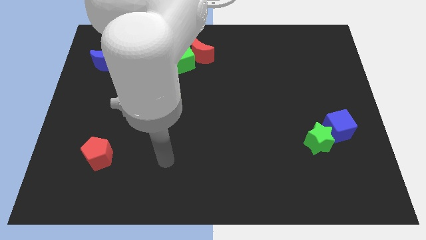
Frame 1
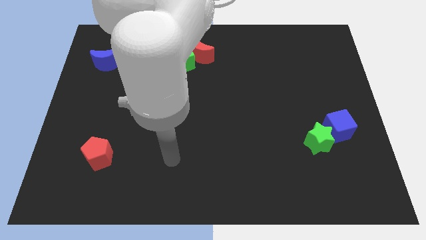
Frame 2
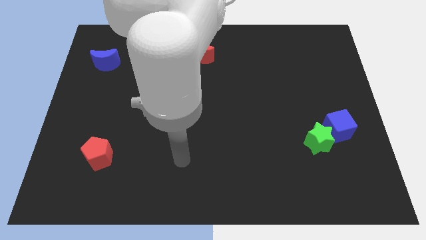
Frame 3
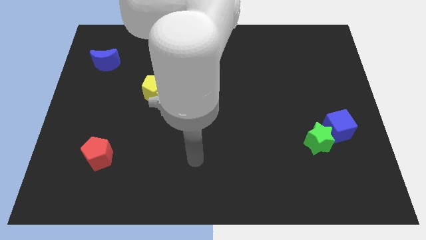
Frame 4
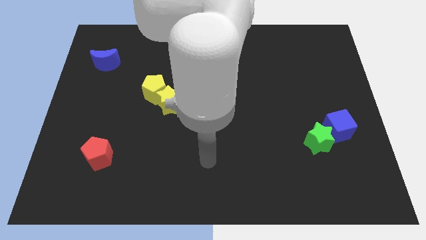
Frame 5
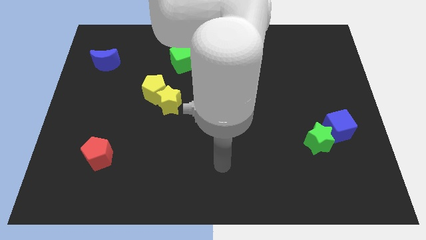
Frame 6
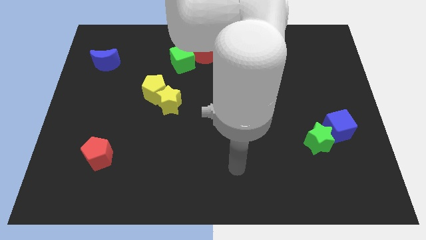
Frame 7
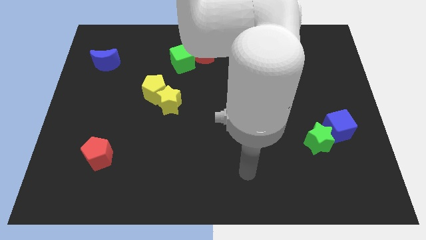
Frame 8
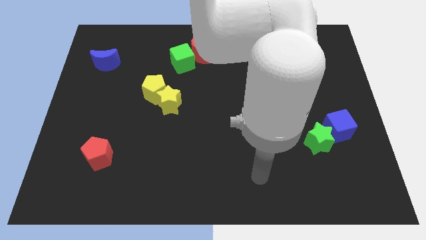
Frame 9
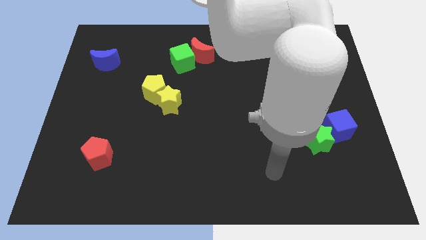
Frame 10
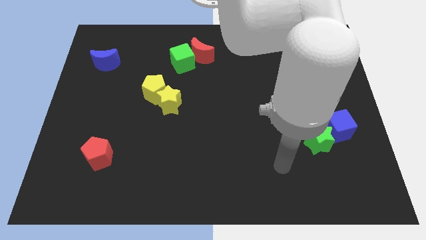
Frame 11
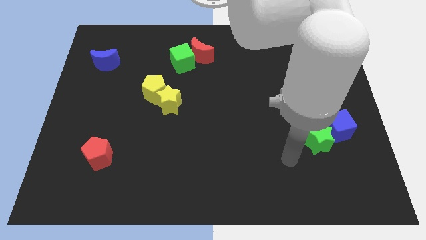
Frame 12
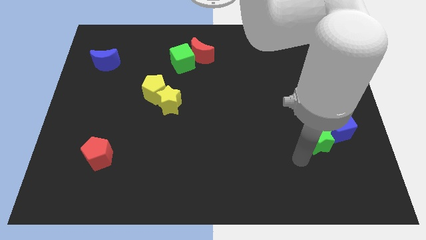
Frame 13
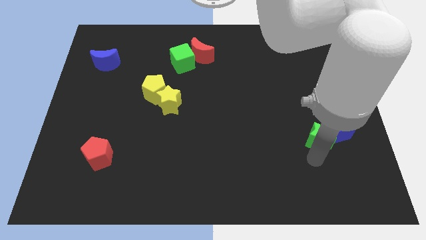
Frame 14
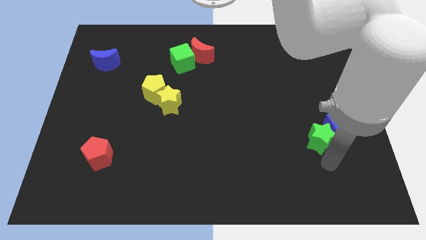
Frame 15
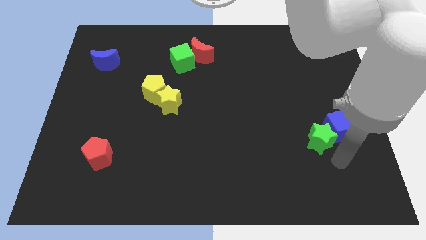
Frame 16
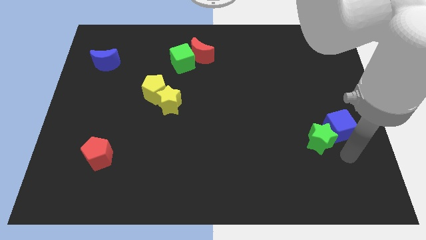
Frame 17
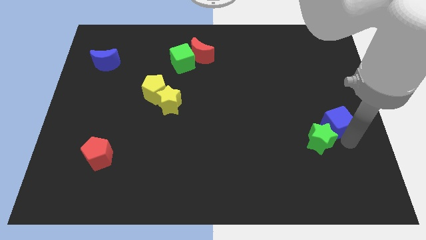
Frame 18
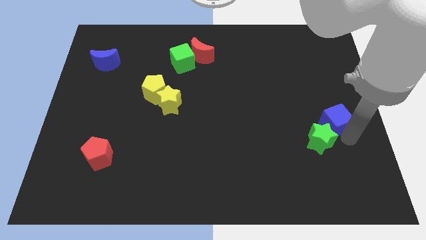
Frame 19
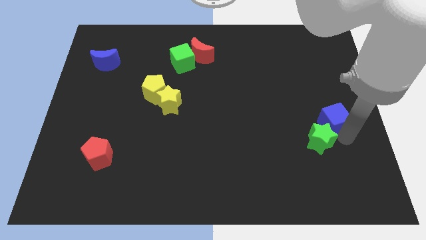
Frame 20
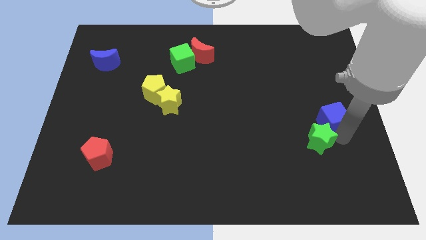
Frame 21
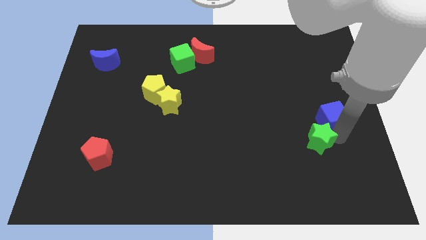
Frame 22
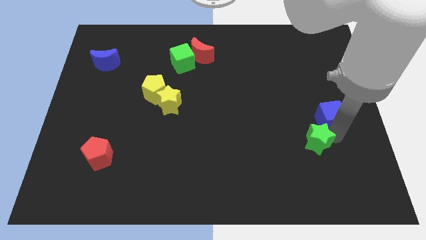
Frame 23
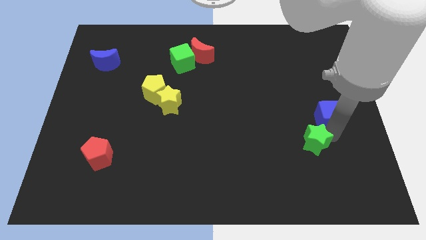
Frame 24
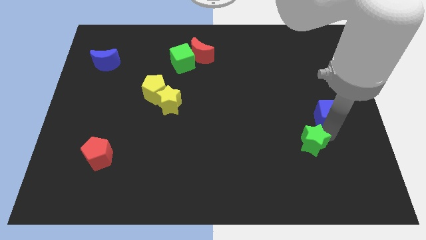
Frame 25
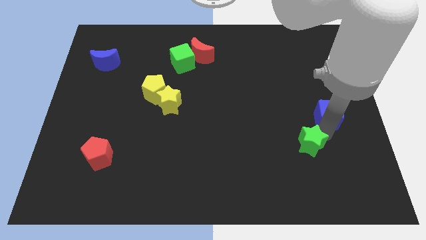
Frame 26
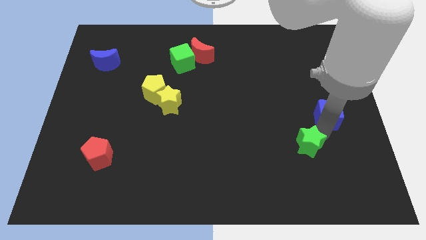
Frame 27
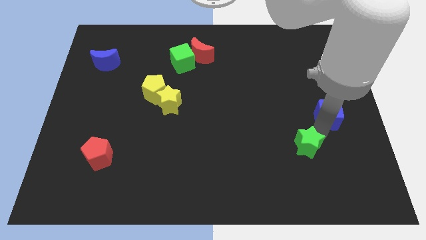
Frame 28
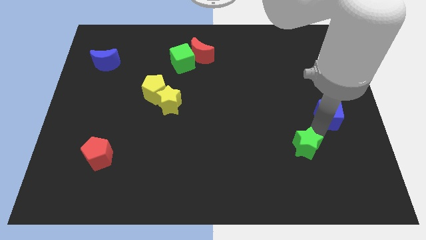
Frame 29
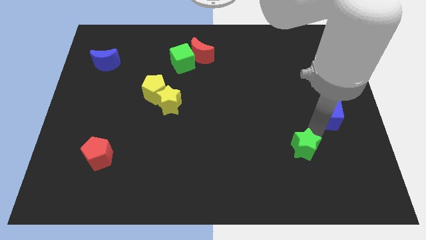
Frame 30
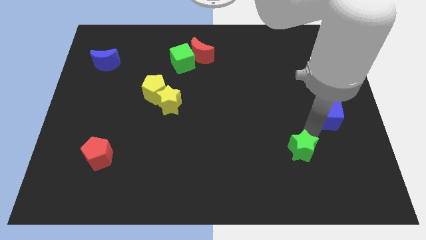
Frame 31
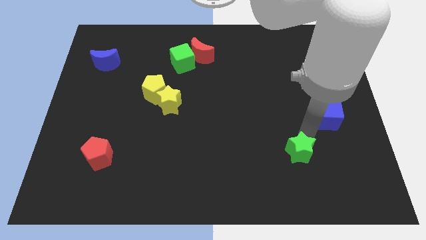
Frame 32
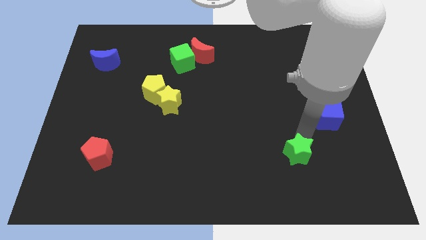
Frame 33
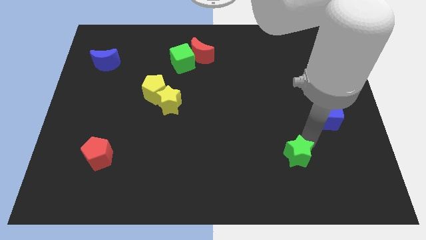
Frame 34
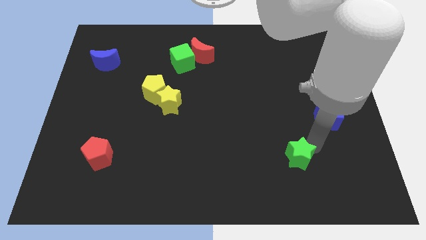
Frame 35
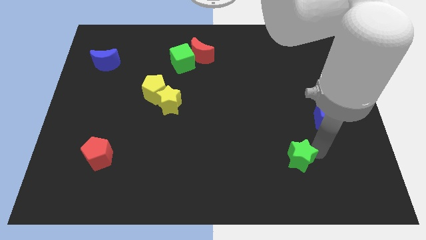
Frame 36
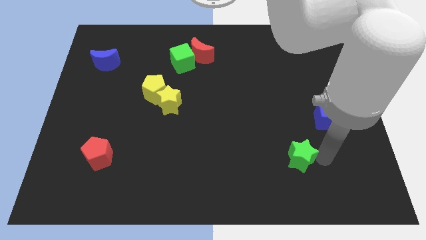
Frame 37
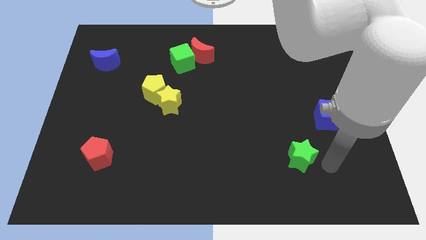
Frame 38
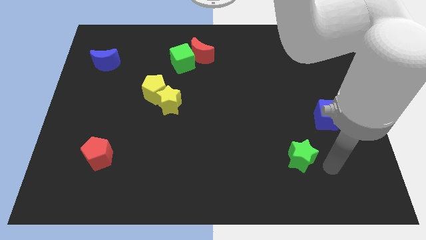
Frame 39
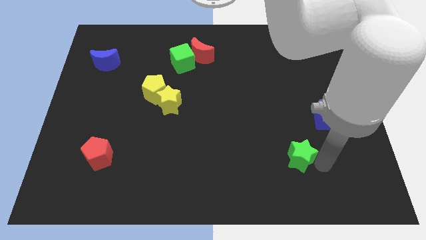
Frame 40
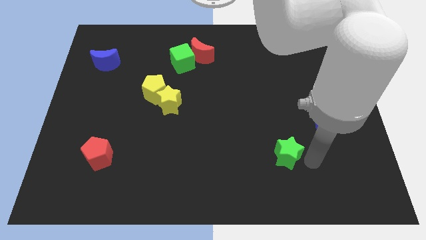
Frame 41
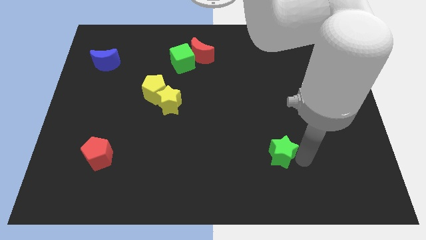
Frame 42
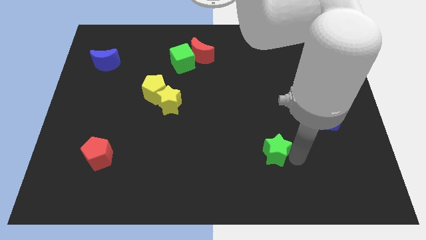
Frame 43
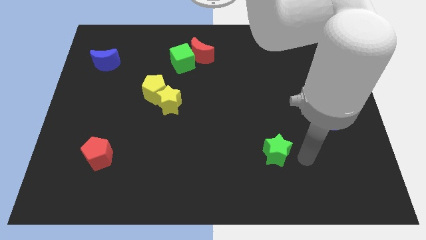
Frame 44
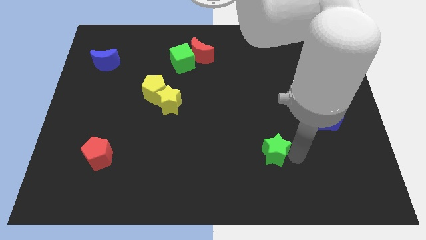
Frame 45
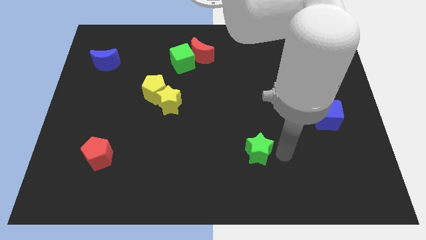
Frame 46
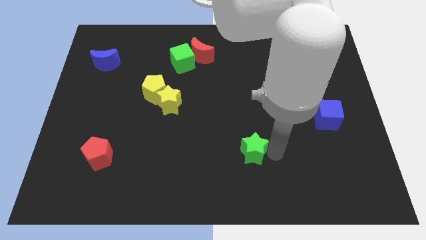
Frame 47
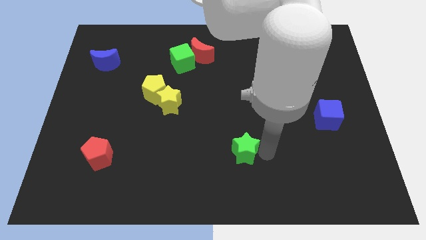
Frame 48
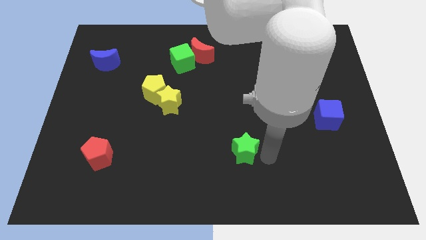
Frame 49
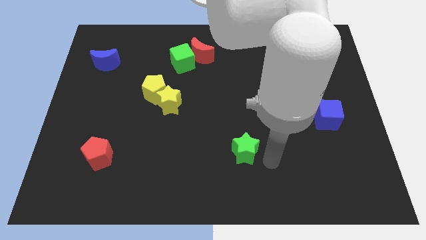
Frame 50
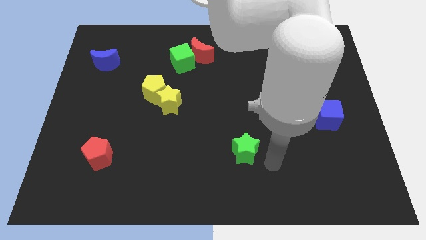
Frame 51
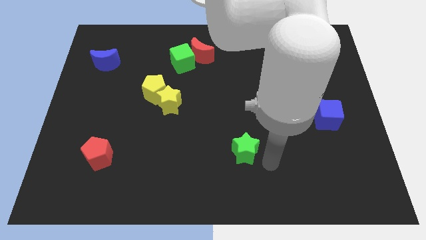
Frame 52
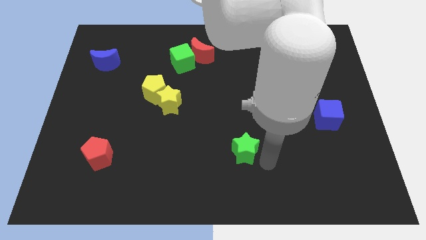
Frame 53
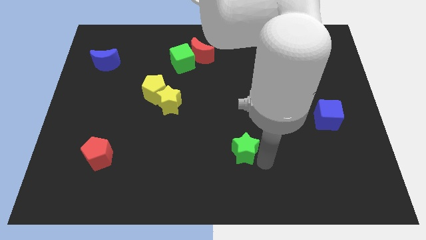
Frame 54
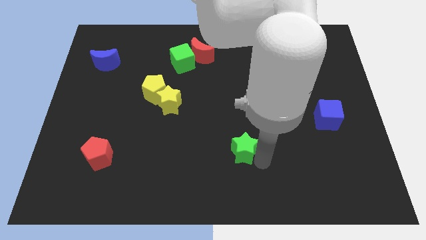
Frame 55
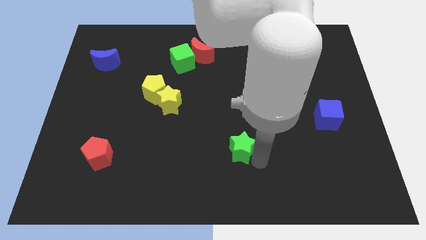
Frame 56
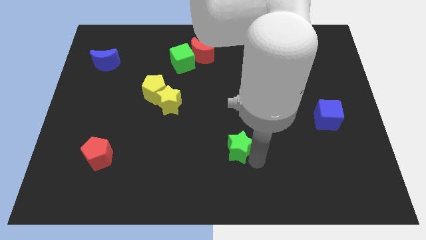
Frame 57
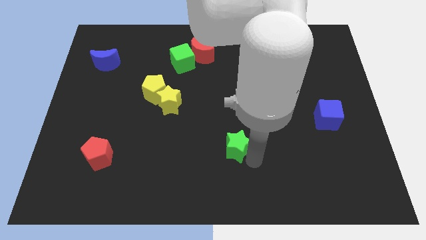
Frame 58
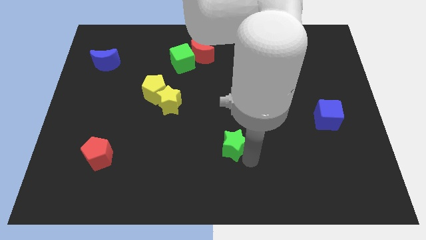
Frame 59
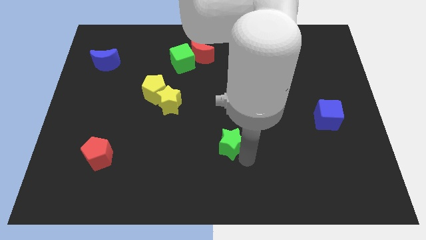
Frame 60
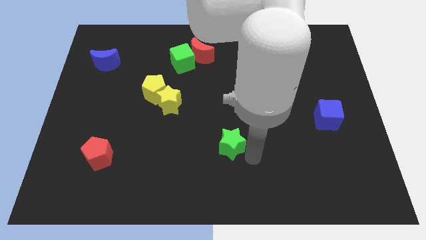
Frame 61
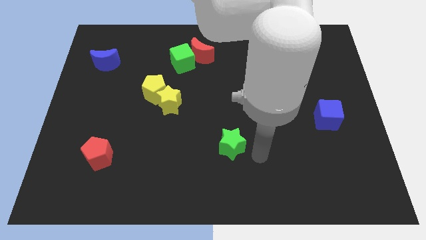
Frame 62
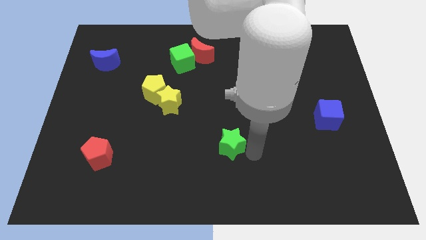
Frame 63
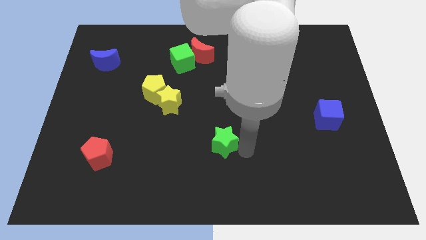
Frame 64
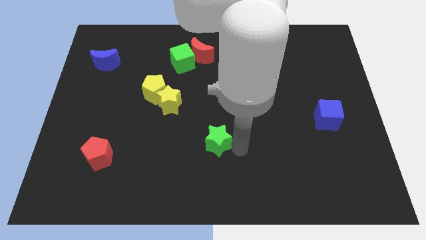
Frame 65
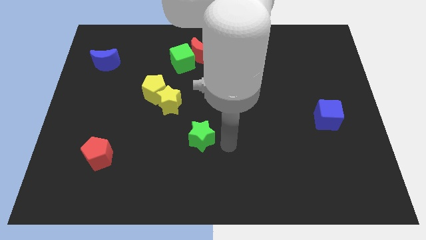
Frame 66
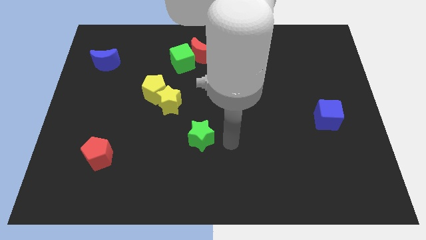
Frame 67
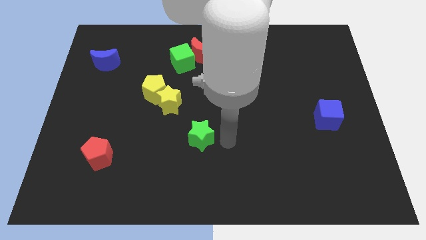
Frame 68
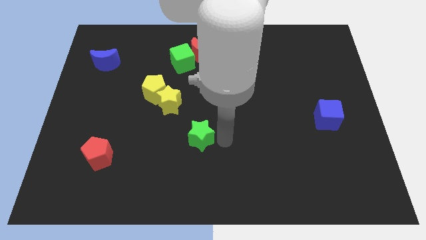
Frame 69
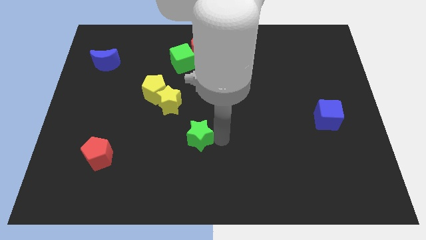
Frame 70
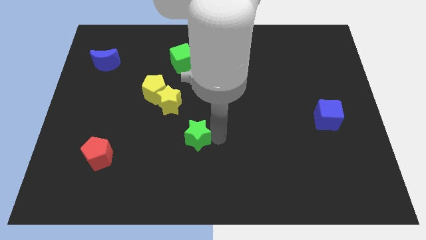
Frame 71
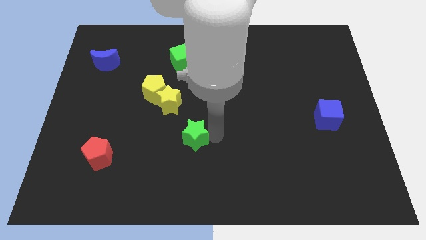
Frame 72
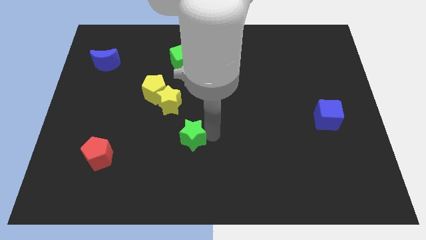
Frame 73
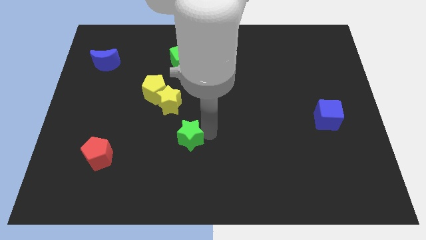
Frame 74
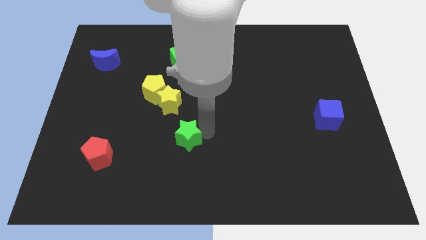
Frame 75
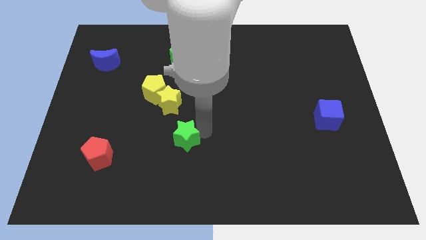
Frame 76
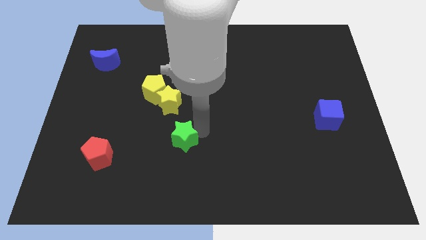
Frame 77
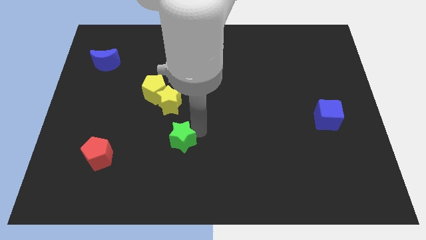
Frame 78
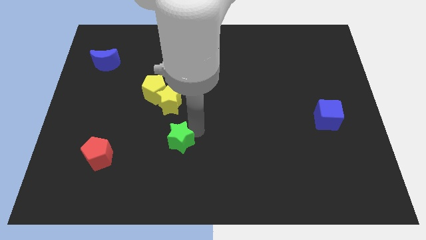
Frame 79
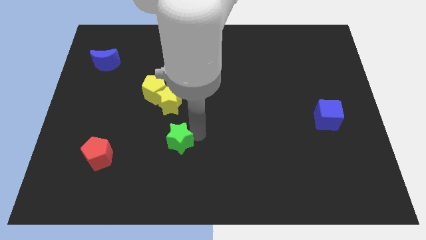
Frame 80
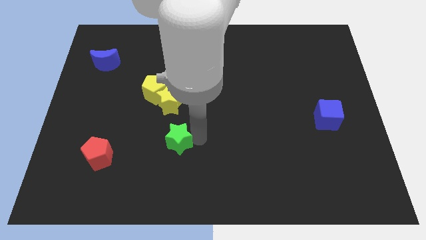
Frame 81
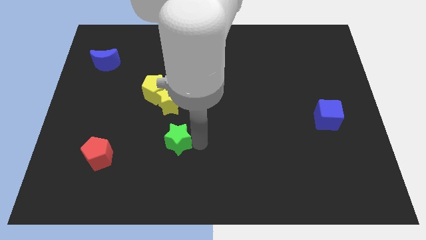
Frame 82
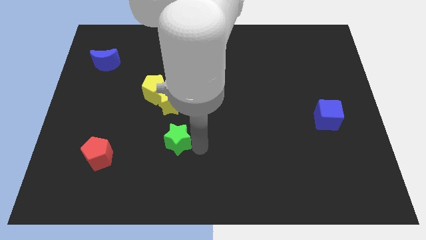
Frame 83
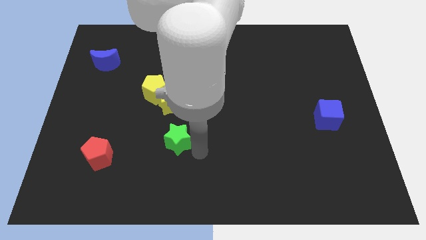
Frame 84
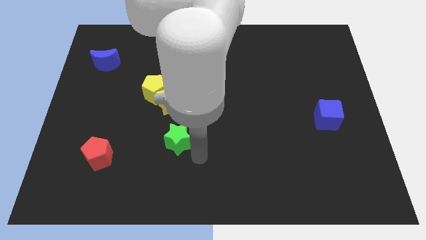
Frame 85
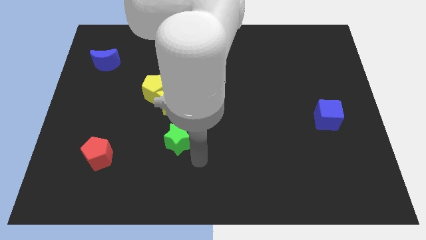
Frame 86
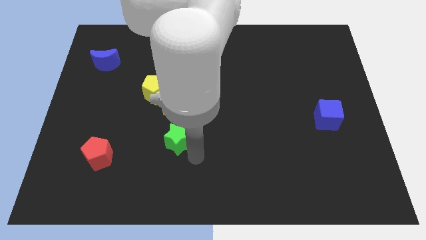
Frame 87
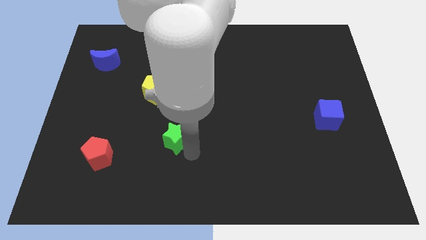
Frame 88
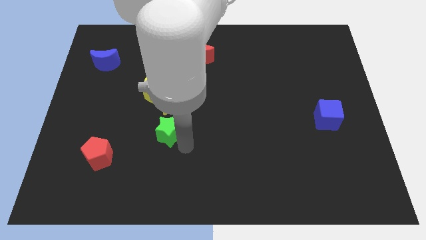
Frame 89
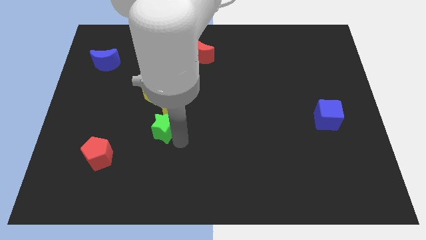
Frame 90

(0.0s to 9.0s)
put the green star diagonally down and to the left of the yellow star
